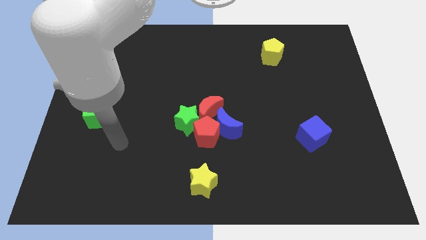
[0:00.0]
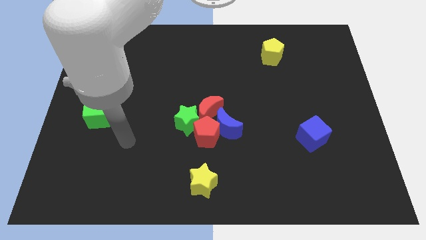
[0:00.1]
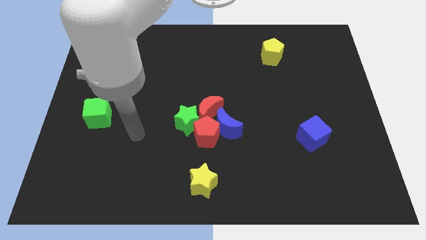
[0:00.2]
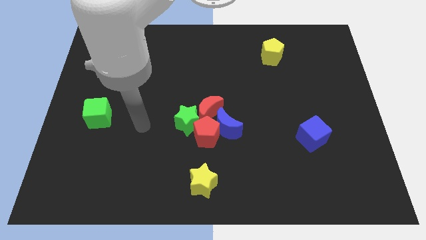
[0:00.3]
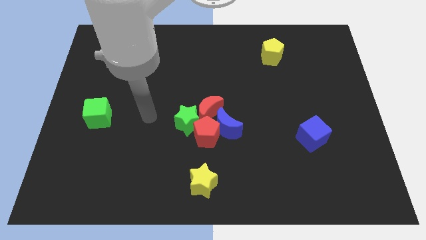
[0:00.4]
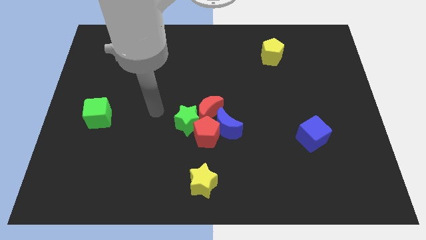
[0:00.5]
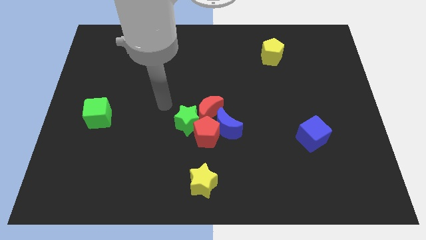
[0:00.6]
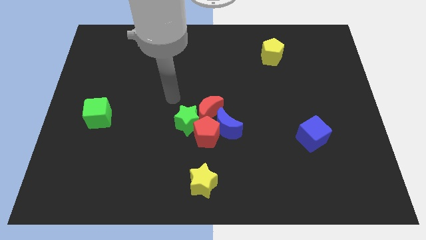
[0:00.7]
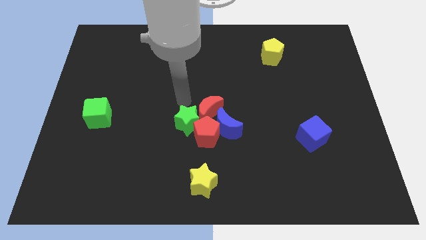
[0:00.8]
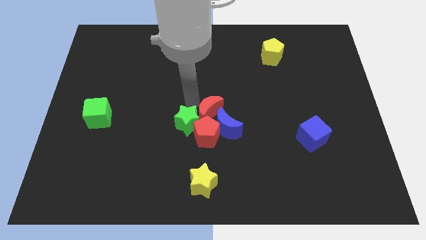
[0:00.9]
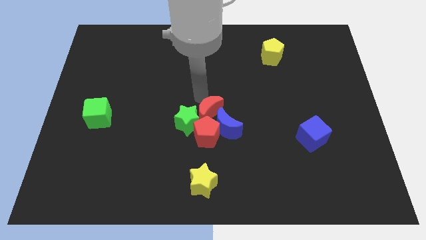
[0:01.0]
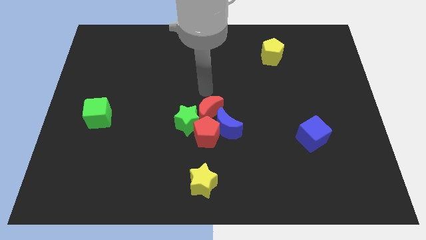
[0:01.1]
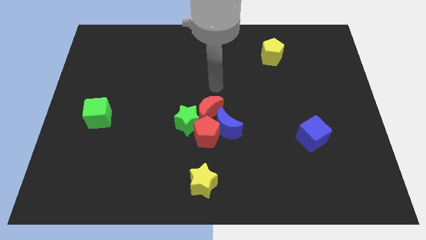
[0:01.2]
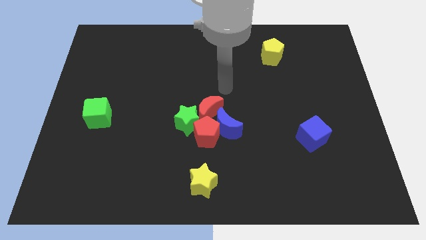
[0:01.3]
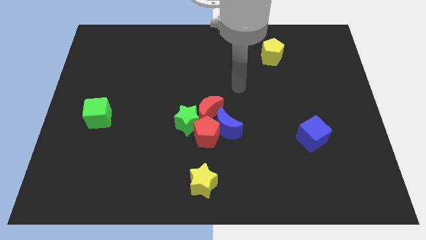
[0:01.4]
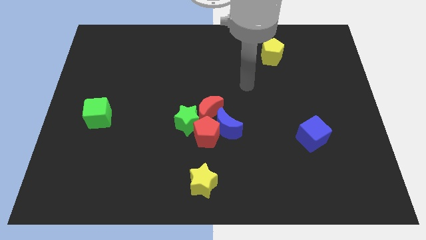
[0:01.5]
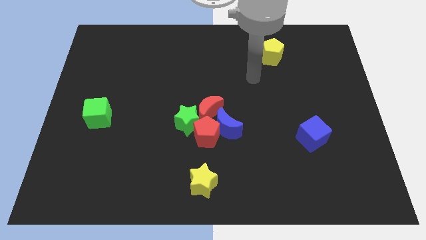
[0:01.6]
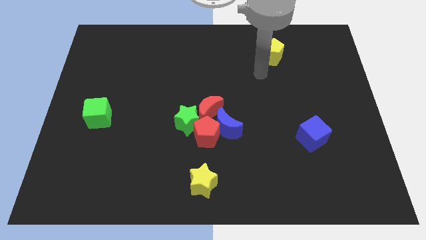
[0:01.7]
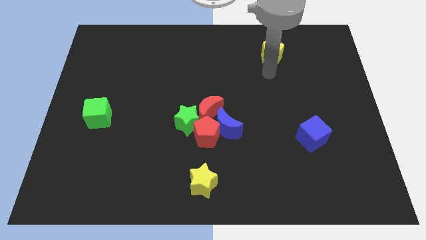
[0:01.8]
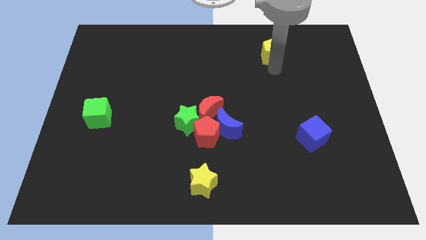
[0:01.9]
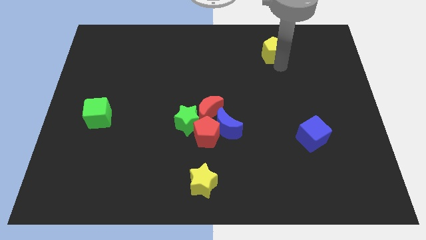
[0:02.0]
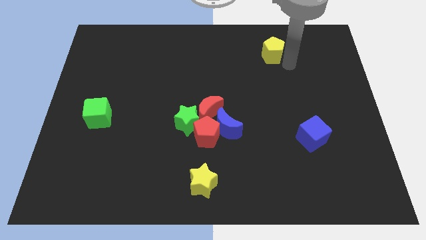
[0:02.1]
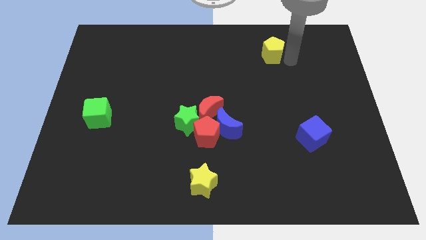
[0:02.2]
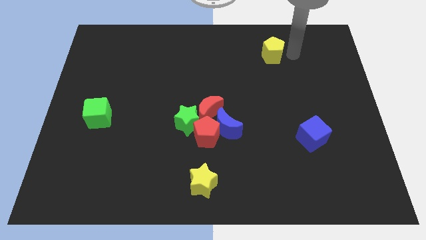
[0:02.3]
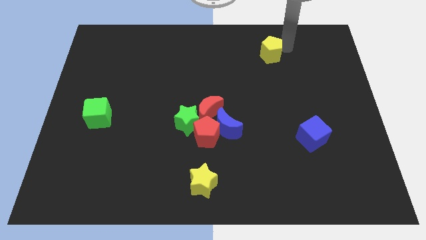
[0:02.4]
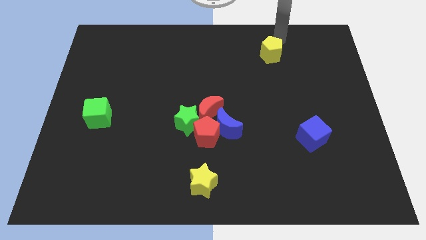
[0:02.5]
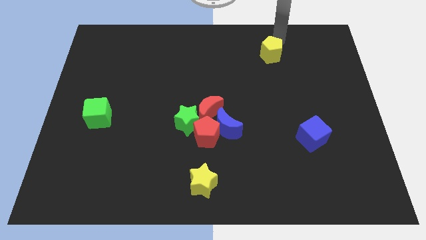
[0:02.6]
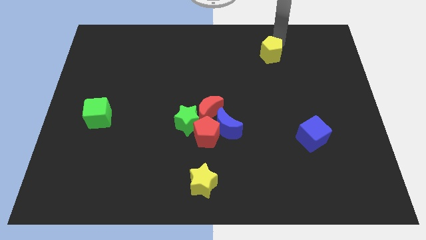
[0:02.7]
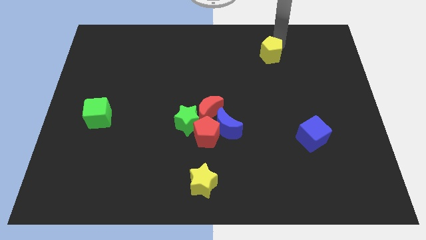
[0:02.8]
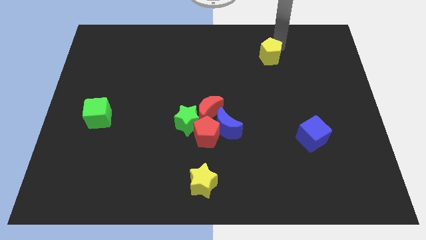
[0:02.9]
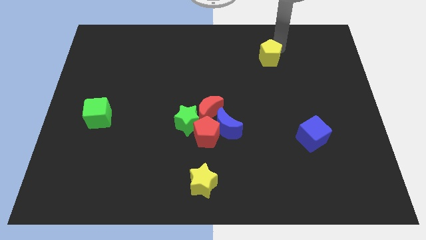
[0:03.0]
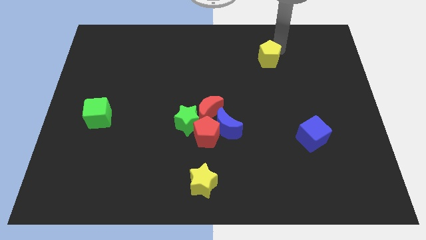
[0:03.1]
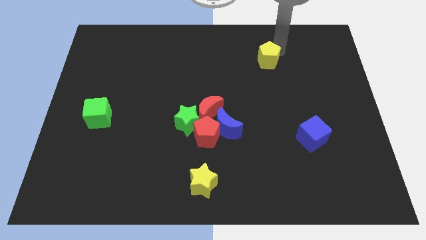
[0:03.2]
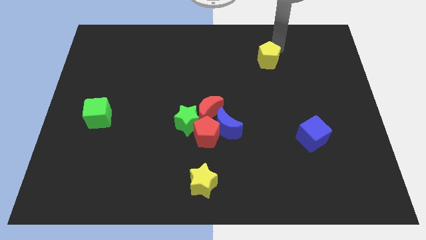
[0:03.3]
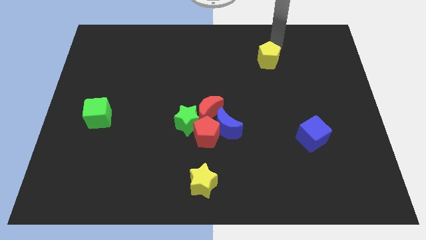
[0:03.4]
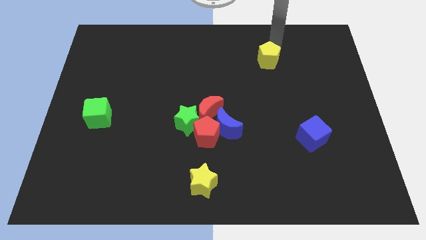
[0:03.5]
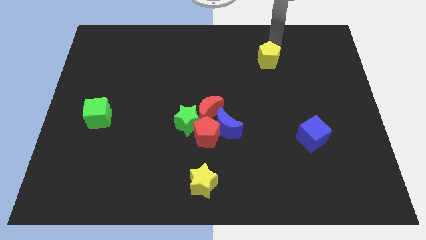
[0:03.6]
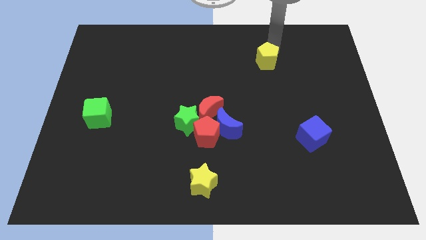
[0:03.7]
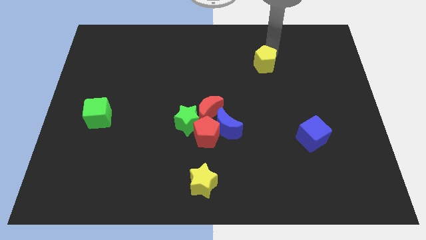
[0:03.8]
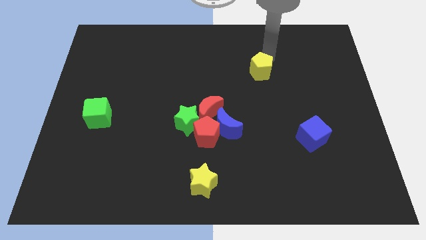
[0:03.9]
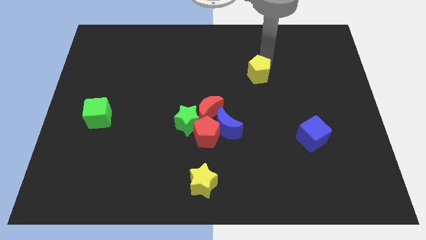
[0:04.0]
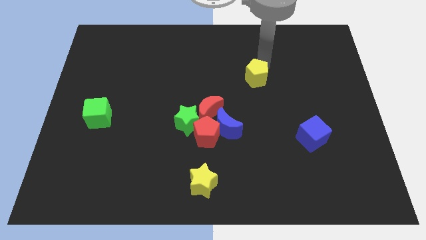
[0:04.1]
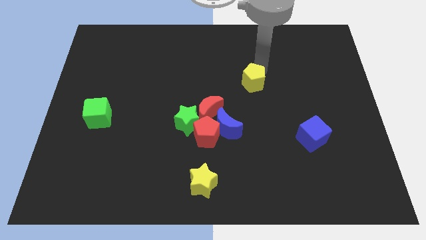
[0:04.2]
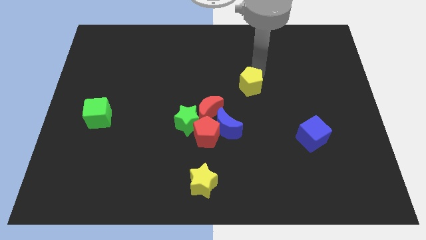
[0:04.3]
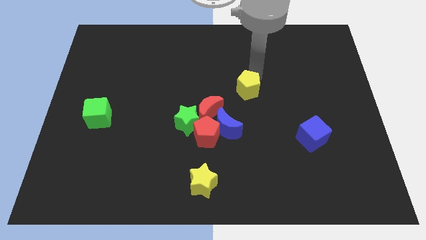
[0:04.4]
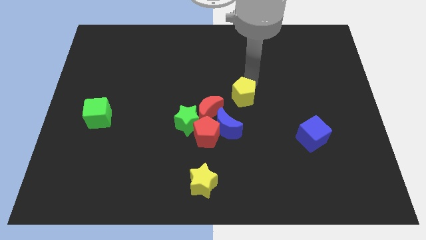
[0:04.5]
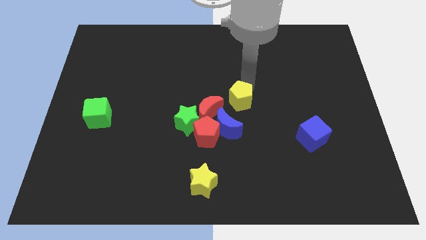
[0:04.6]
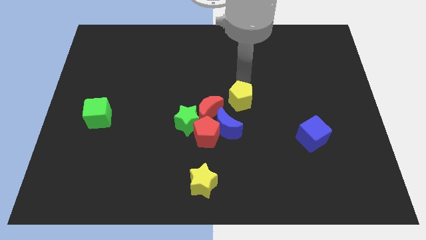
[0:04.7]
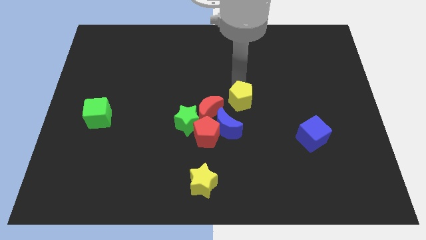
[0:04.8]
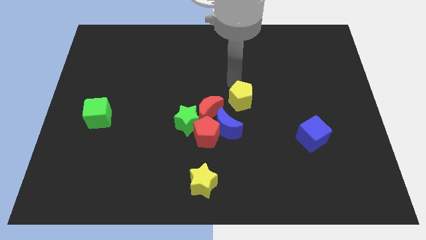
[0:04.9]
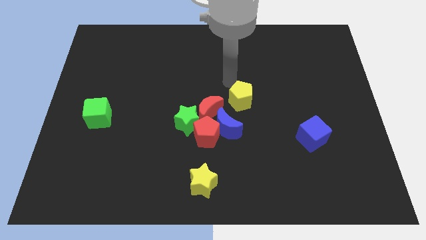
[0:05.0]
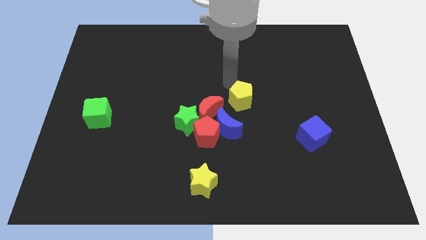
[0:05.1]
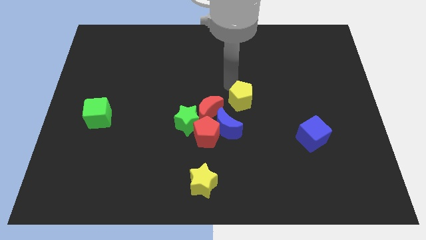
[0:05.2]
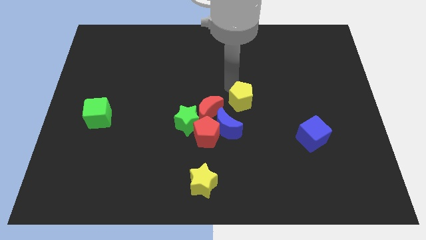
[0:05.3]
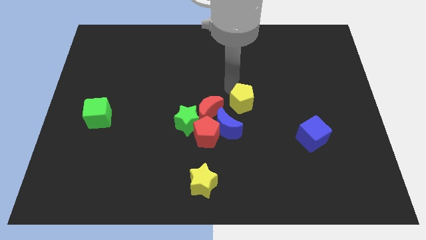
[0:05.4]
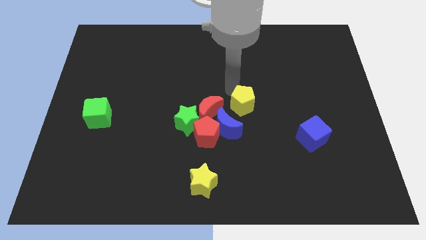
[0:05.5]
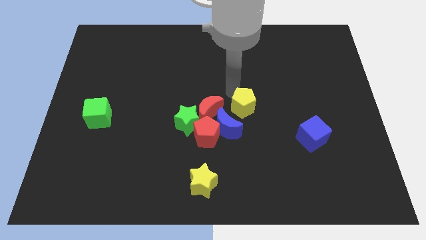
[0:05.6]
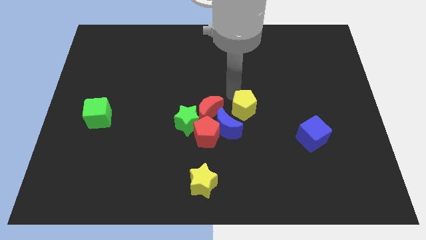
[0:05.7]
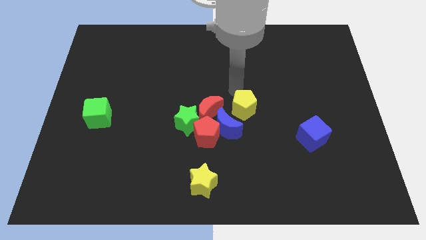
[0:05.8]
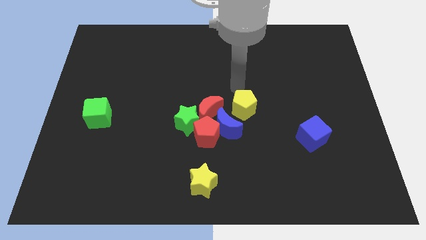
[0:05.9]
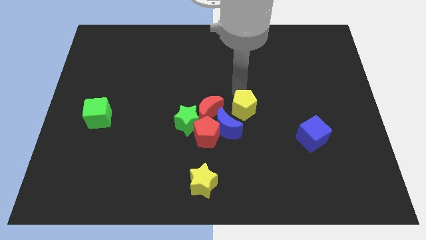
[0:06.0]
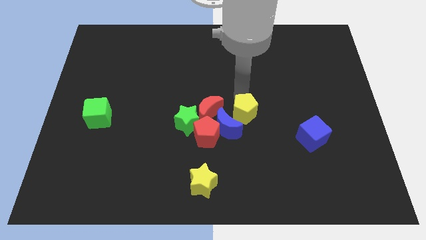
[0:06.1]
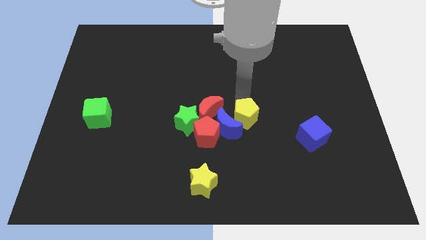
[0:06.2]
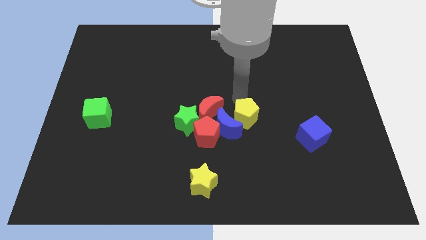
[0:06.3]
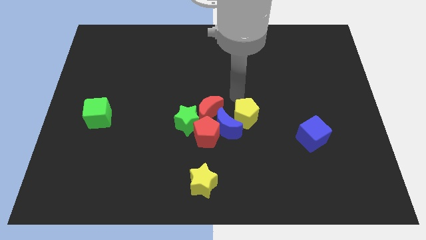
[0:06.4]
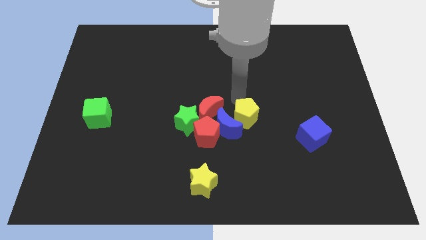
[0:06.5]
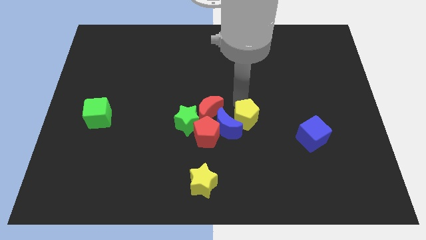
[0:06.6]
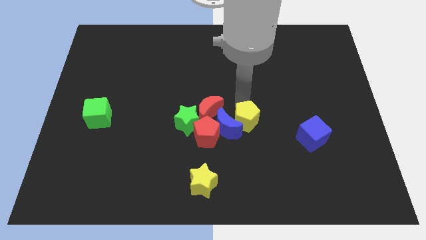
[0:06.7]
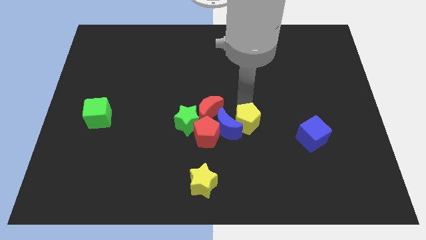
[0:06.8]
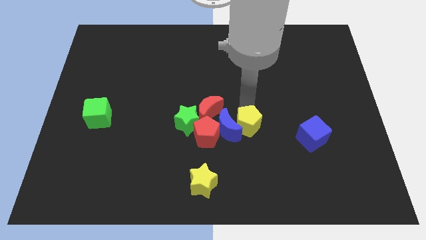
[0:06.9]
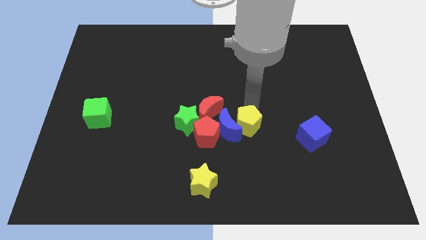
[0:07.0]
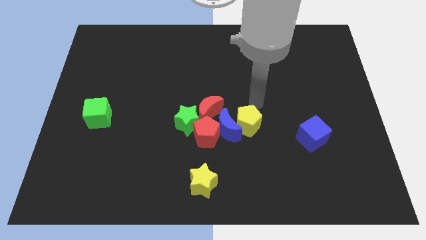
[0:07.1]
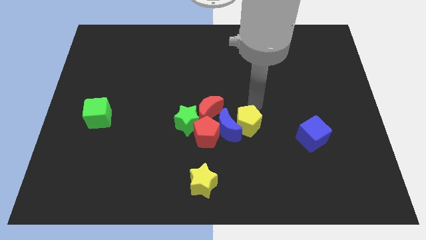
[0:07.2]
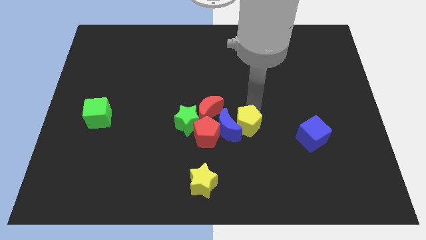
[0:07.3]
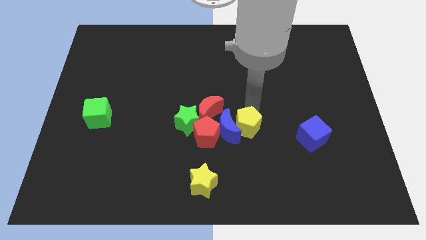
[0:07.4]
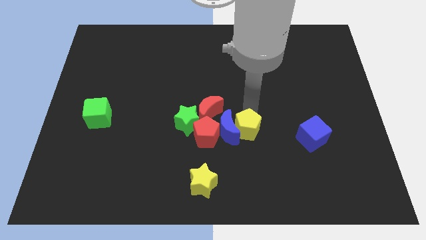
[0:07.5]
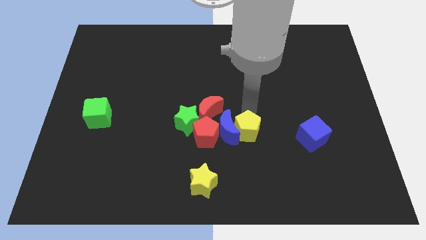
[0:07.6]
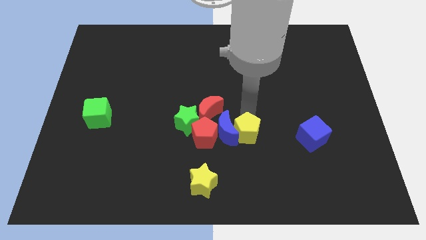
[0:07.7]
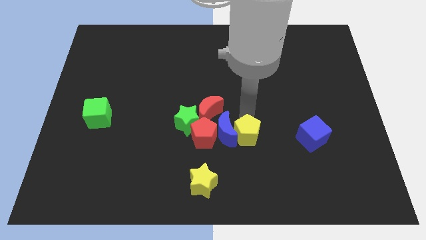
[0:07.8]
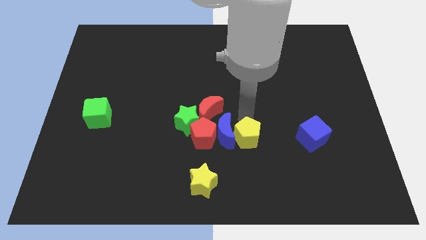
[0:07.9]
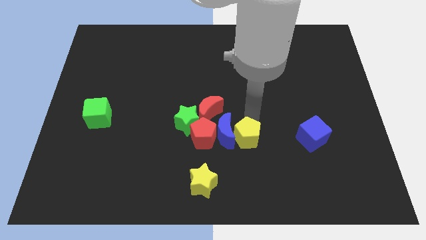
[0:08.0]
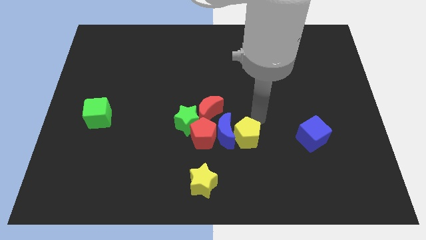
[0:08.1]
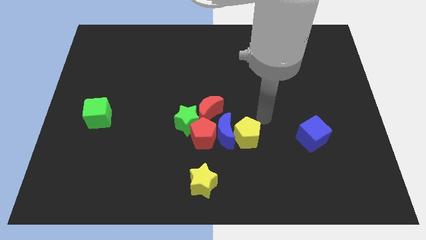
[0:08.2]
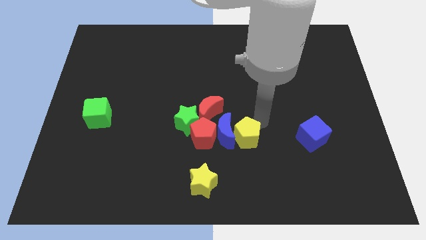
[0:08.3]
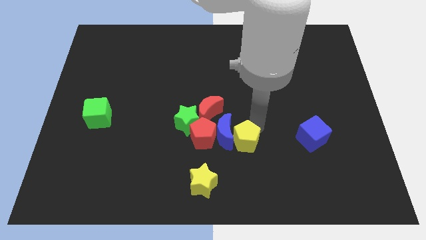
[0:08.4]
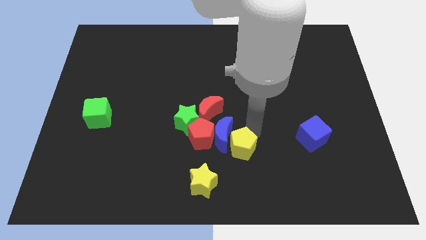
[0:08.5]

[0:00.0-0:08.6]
slide the yellow pentagon to the bottom right of the red pentagon
